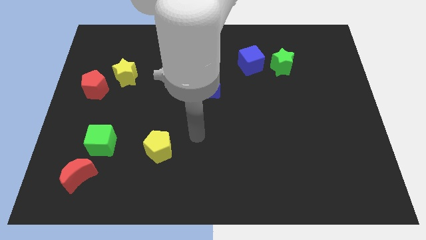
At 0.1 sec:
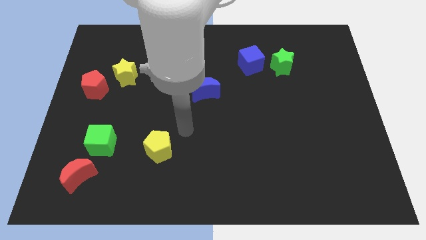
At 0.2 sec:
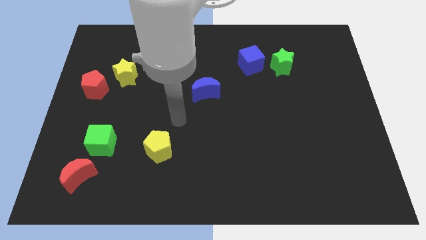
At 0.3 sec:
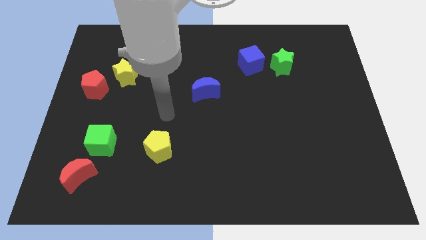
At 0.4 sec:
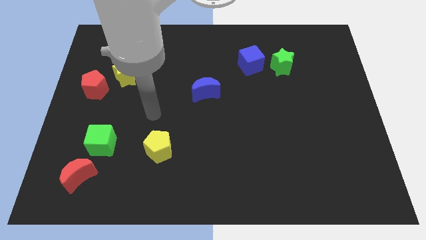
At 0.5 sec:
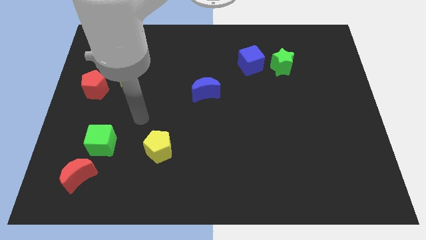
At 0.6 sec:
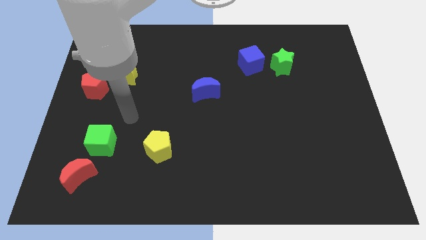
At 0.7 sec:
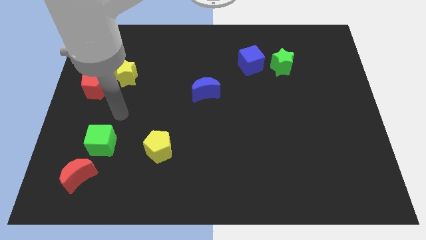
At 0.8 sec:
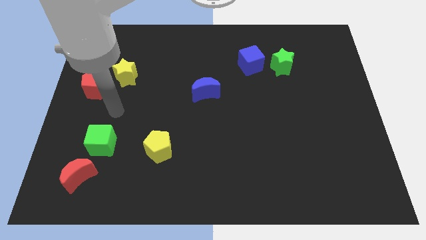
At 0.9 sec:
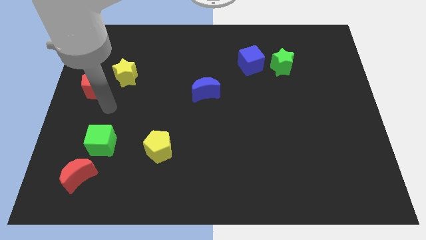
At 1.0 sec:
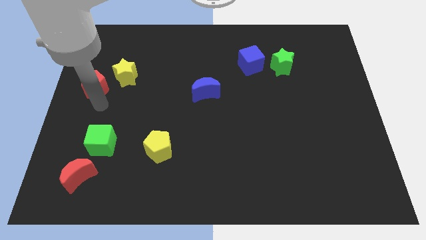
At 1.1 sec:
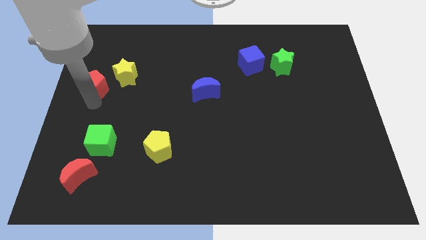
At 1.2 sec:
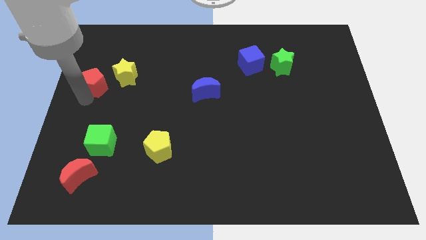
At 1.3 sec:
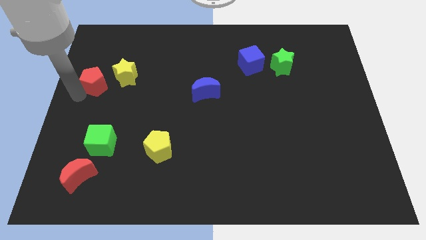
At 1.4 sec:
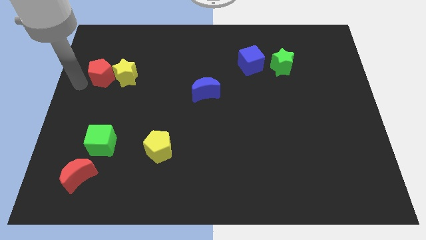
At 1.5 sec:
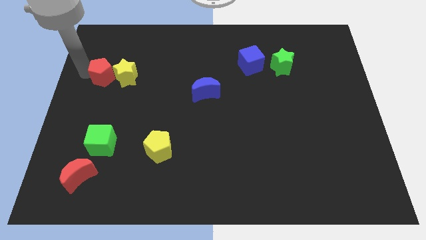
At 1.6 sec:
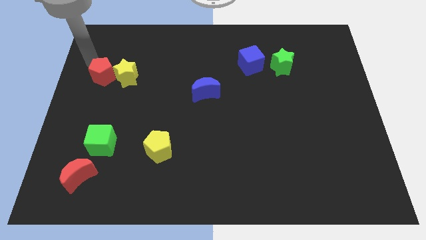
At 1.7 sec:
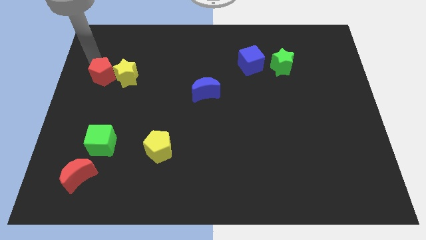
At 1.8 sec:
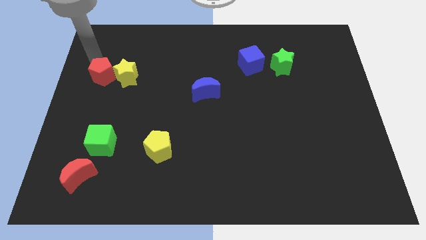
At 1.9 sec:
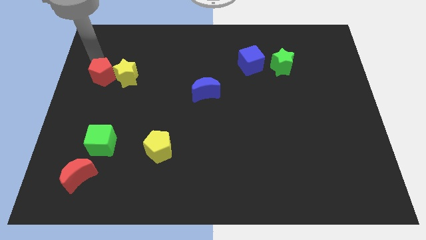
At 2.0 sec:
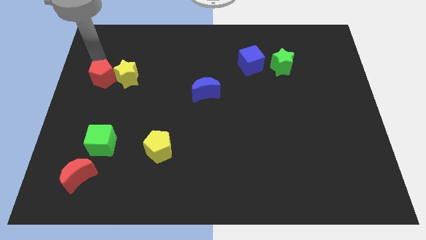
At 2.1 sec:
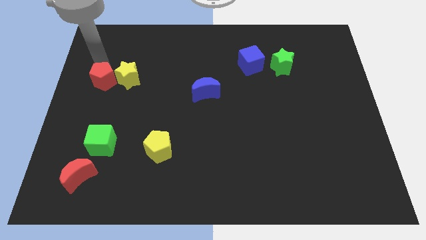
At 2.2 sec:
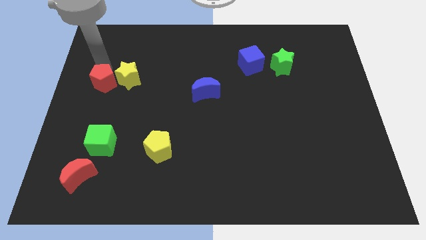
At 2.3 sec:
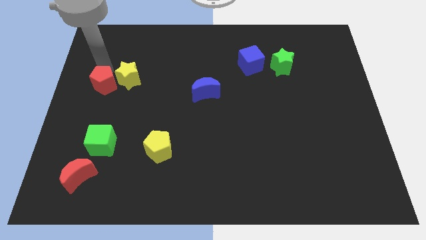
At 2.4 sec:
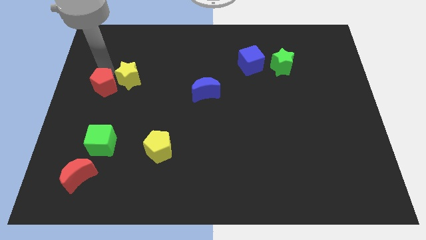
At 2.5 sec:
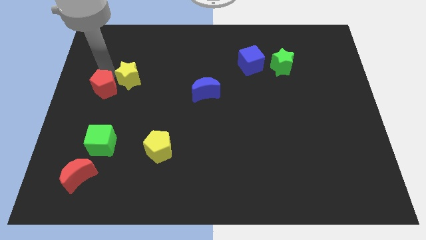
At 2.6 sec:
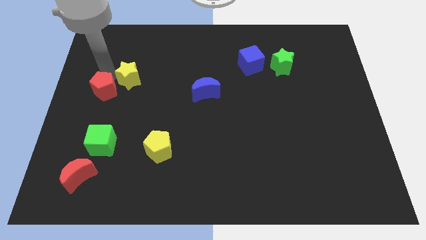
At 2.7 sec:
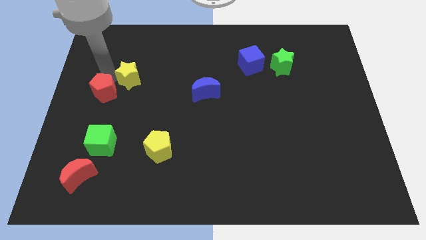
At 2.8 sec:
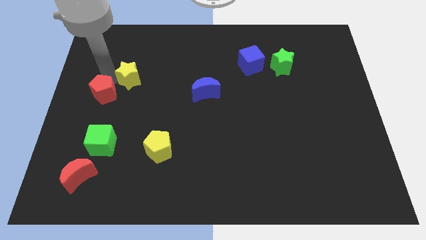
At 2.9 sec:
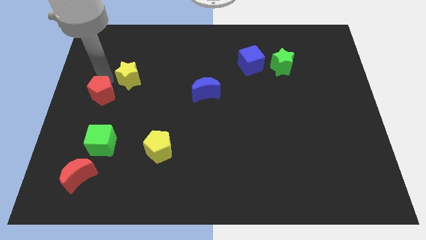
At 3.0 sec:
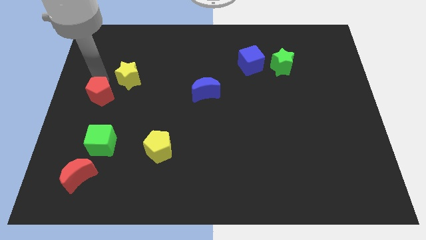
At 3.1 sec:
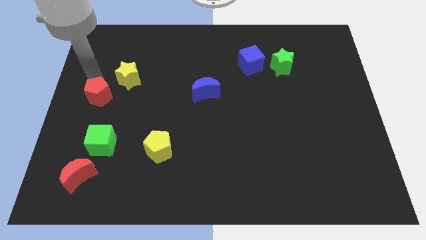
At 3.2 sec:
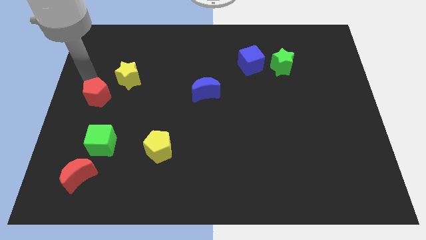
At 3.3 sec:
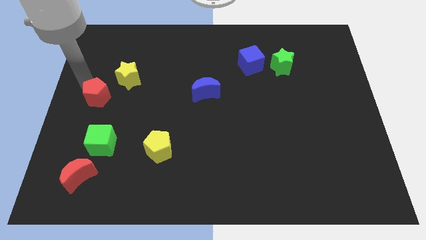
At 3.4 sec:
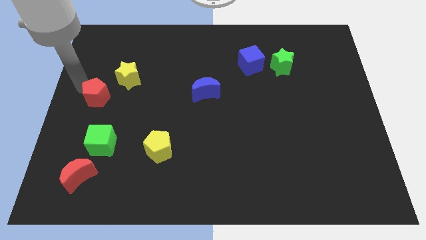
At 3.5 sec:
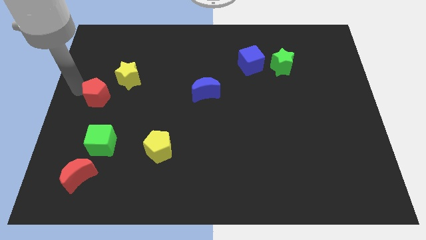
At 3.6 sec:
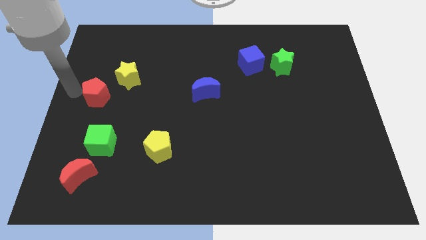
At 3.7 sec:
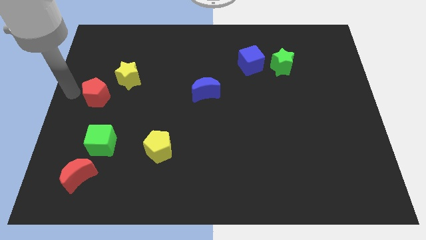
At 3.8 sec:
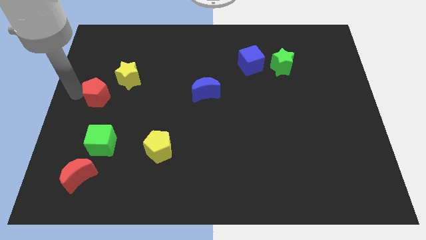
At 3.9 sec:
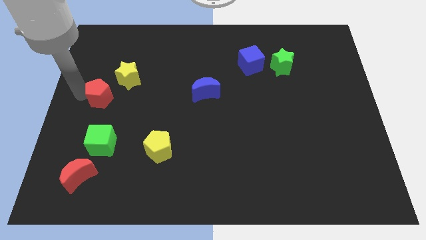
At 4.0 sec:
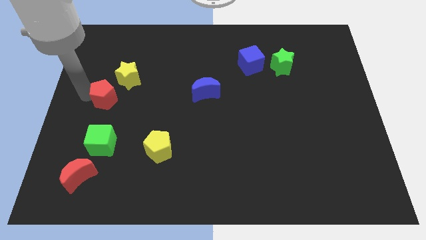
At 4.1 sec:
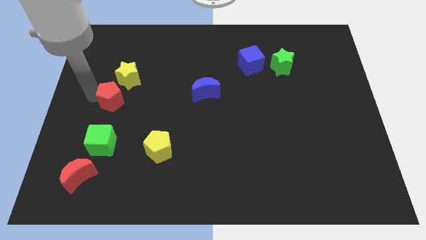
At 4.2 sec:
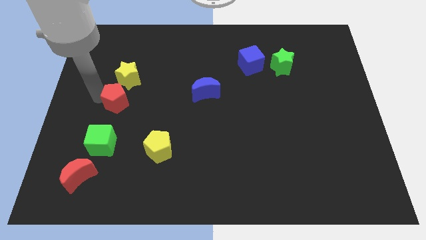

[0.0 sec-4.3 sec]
slide the red pentagon downwards and to the right a little bit

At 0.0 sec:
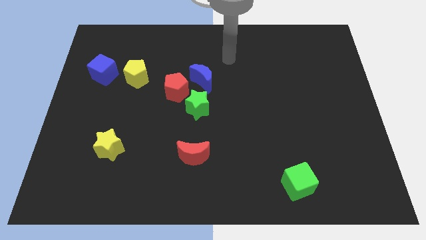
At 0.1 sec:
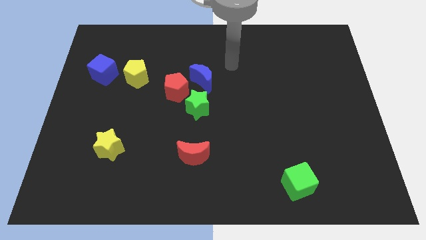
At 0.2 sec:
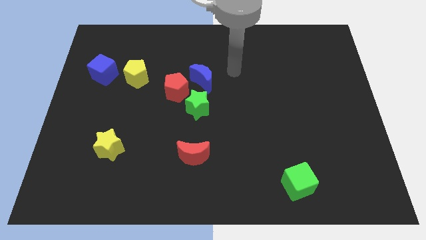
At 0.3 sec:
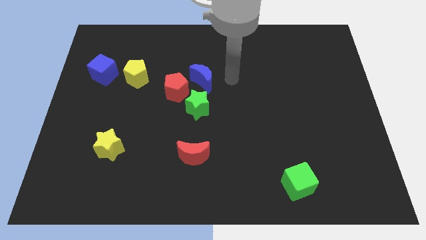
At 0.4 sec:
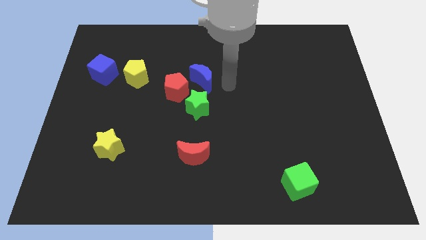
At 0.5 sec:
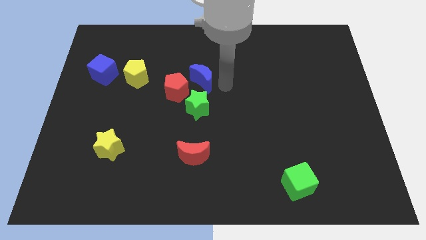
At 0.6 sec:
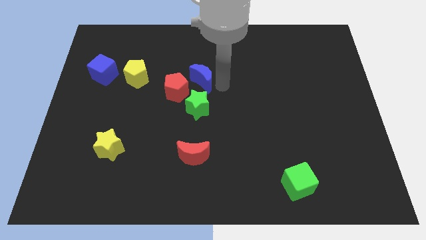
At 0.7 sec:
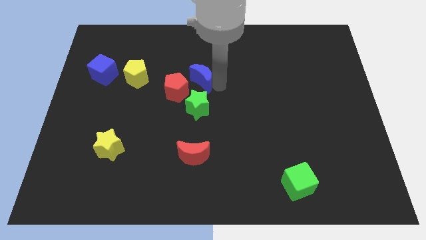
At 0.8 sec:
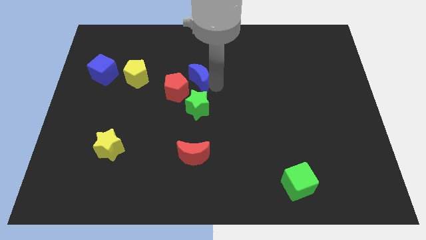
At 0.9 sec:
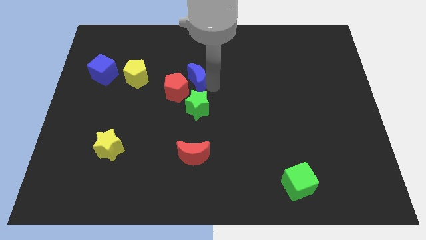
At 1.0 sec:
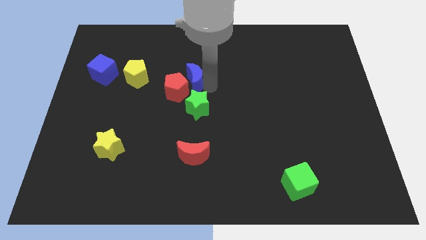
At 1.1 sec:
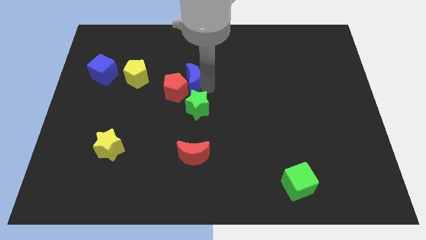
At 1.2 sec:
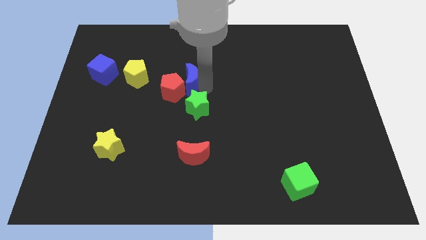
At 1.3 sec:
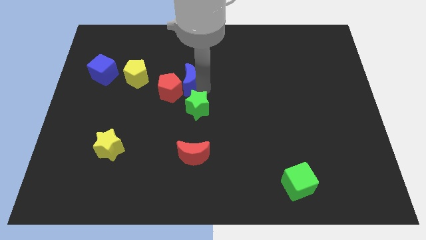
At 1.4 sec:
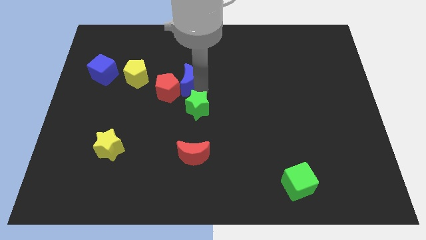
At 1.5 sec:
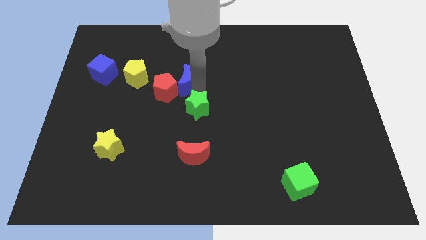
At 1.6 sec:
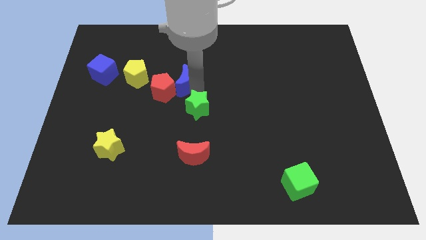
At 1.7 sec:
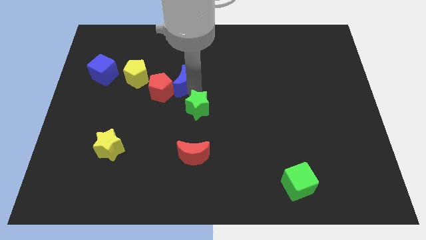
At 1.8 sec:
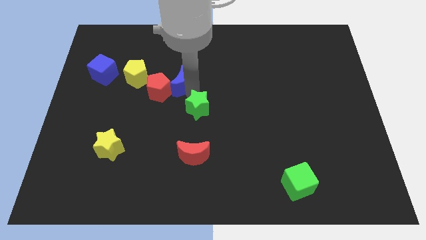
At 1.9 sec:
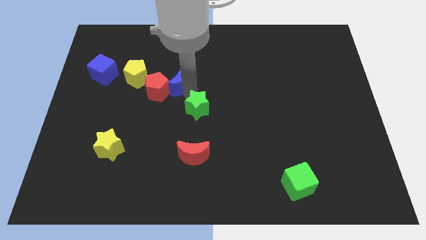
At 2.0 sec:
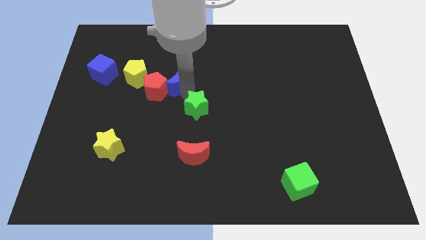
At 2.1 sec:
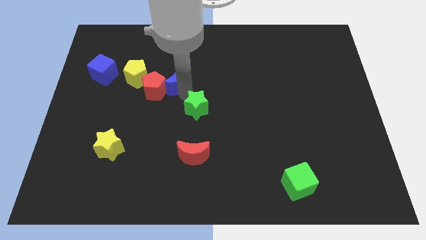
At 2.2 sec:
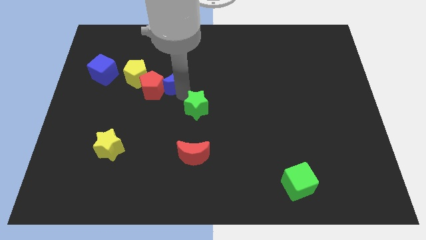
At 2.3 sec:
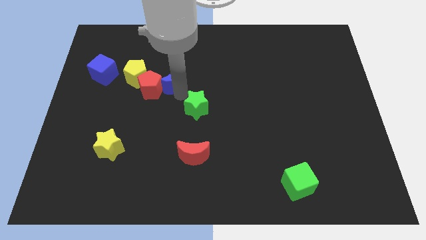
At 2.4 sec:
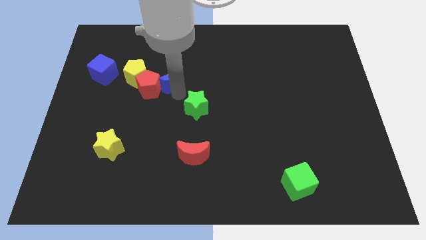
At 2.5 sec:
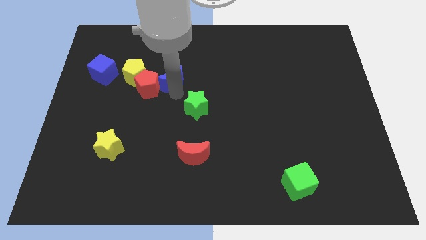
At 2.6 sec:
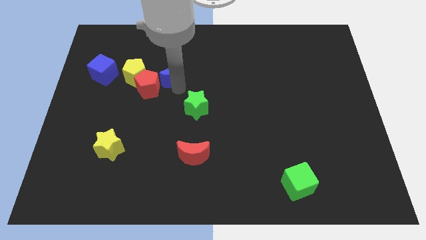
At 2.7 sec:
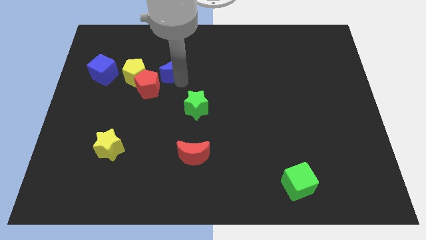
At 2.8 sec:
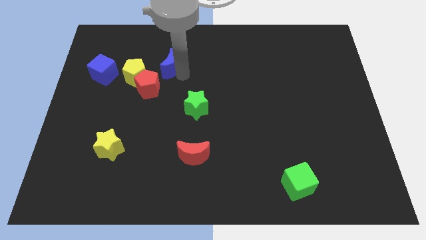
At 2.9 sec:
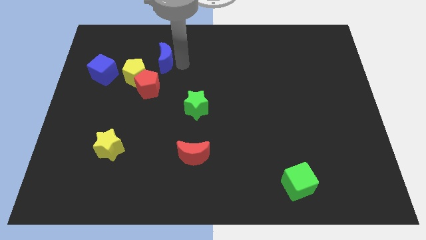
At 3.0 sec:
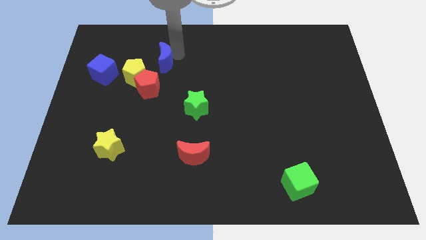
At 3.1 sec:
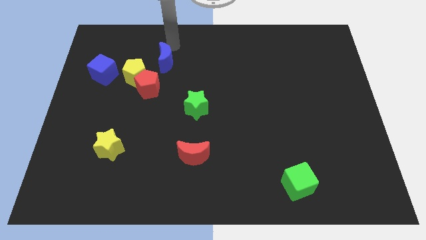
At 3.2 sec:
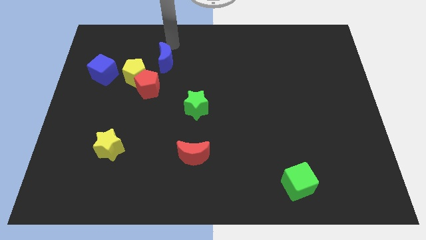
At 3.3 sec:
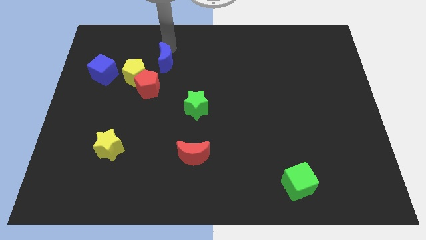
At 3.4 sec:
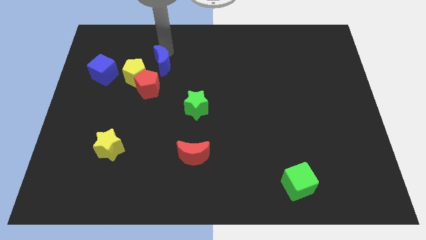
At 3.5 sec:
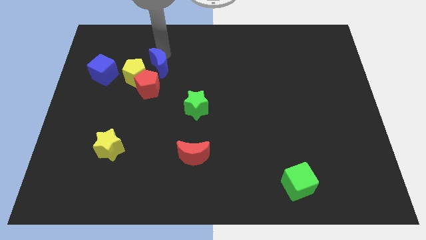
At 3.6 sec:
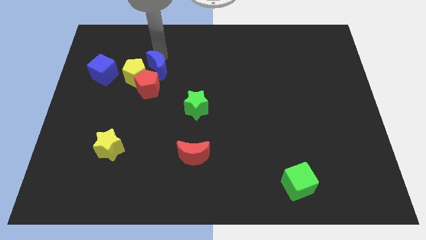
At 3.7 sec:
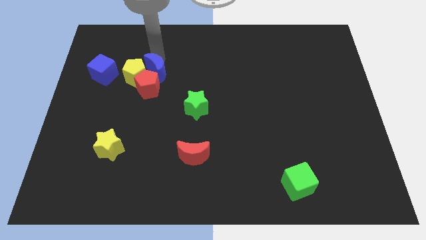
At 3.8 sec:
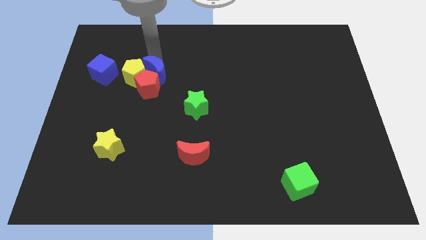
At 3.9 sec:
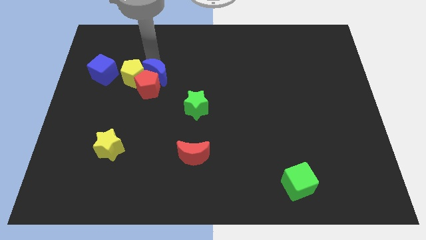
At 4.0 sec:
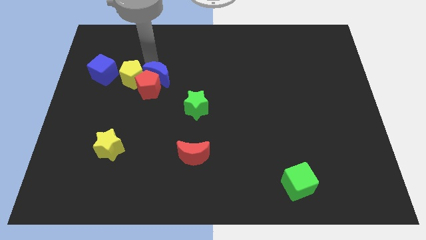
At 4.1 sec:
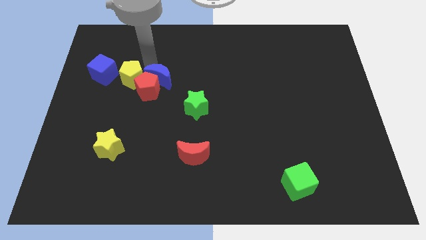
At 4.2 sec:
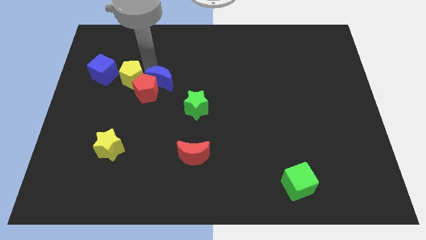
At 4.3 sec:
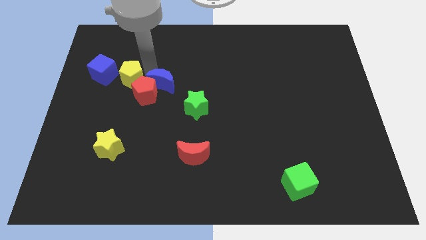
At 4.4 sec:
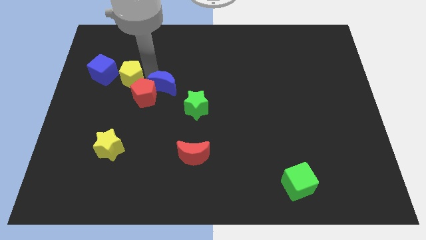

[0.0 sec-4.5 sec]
slide the blue moon down and left diagonally a little bit
